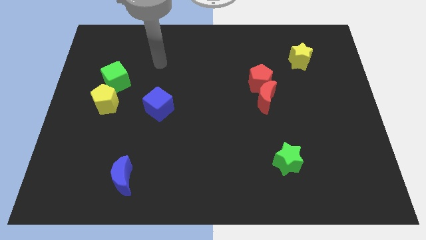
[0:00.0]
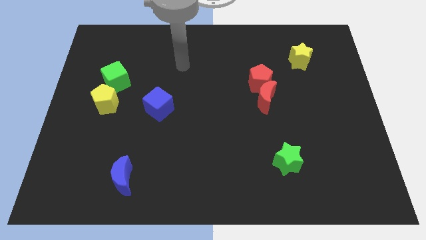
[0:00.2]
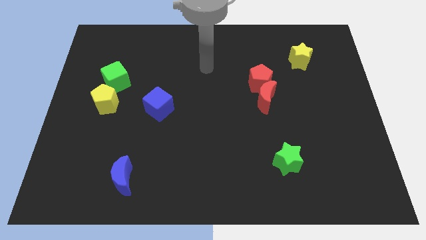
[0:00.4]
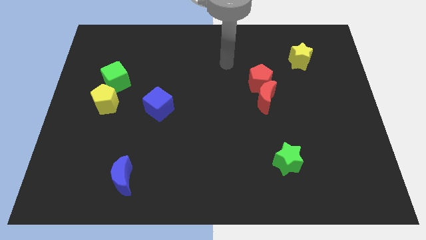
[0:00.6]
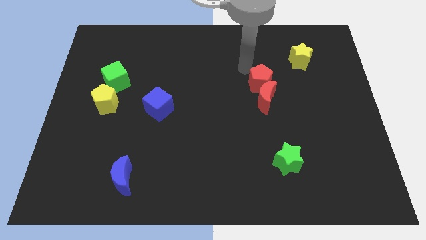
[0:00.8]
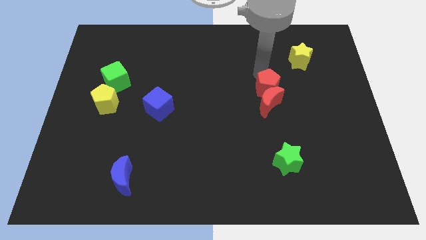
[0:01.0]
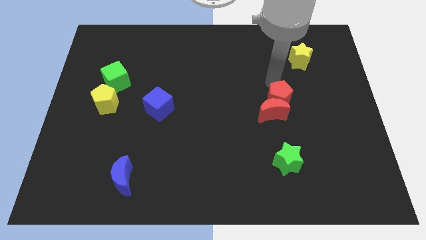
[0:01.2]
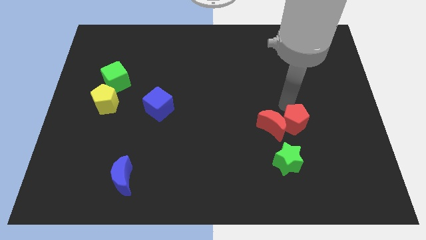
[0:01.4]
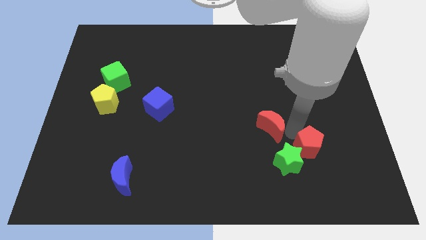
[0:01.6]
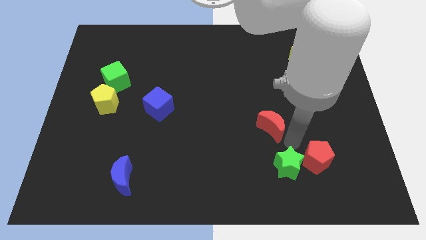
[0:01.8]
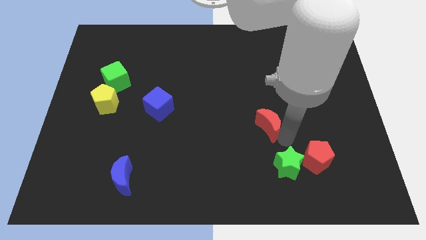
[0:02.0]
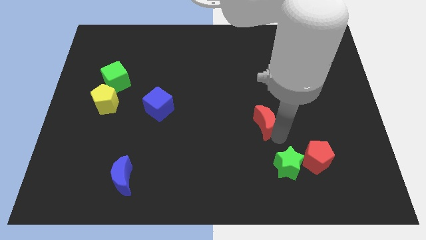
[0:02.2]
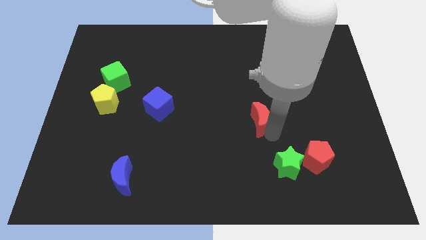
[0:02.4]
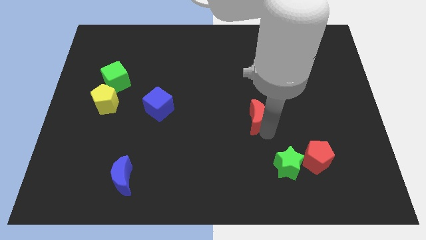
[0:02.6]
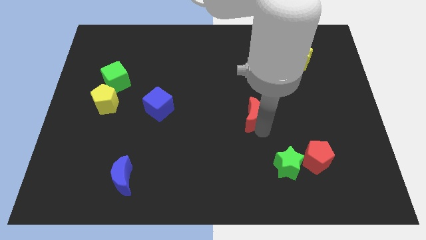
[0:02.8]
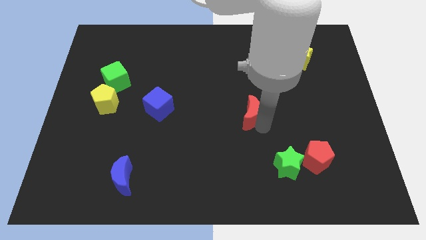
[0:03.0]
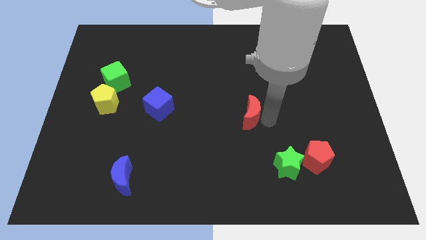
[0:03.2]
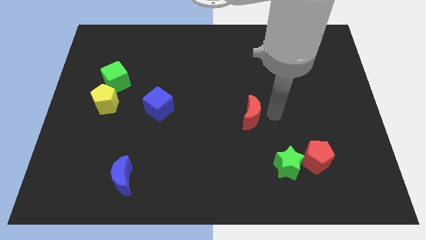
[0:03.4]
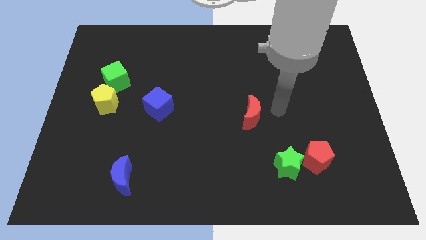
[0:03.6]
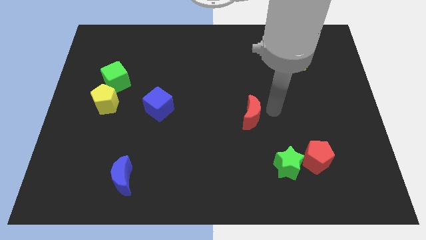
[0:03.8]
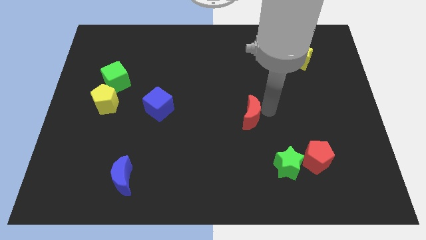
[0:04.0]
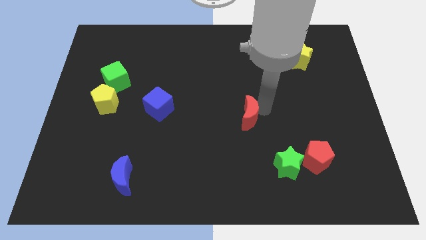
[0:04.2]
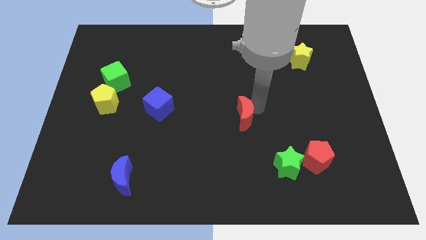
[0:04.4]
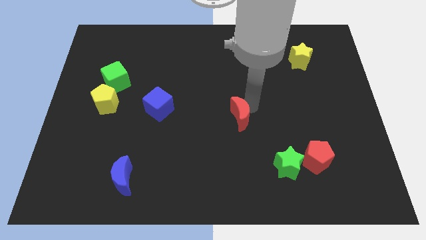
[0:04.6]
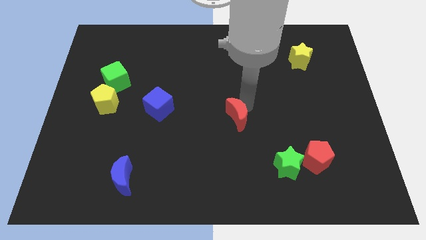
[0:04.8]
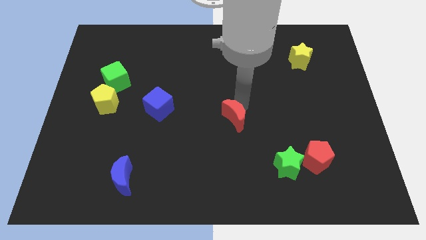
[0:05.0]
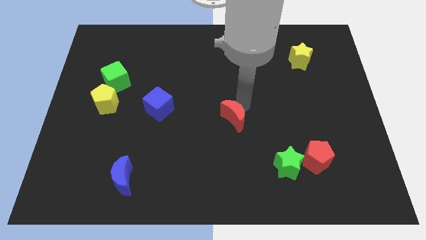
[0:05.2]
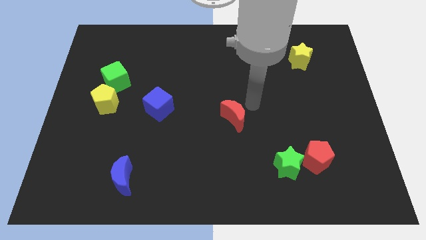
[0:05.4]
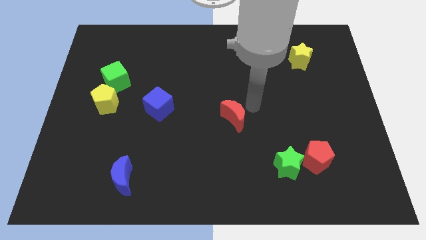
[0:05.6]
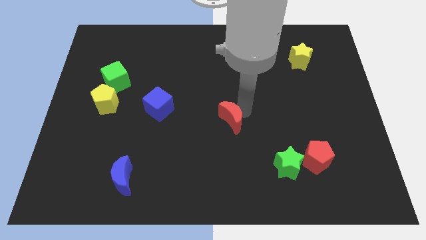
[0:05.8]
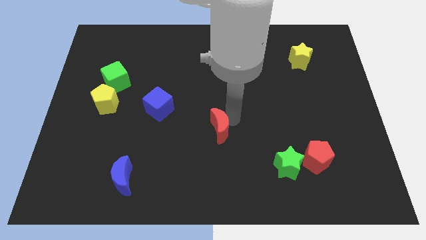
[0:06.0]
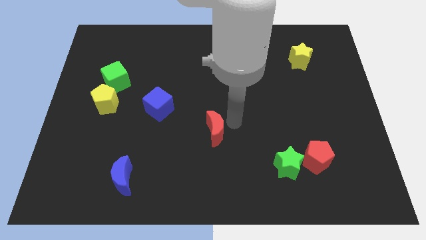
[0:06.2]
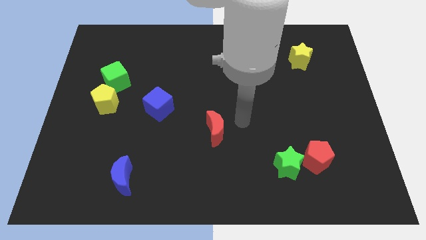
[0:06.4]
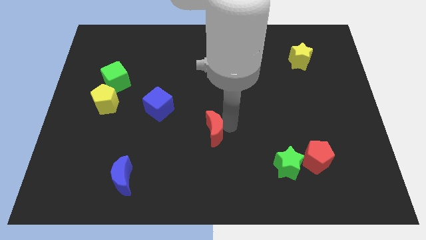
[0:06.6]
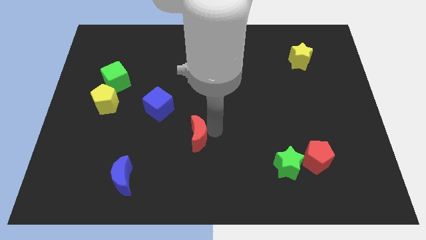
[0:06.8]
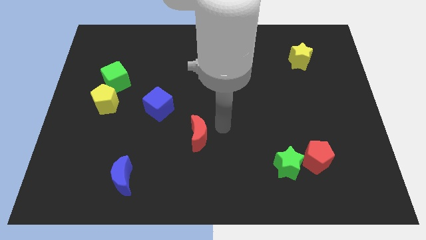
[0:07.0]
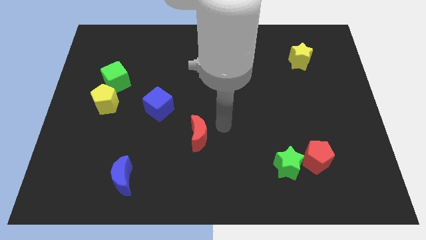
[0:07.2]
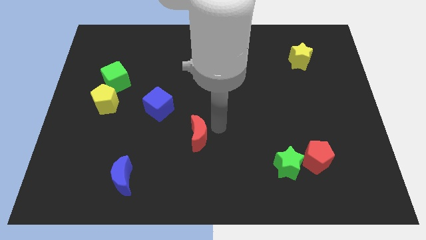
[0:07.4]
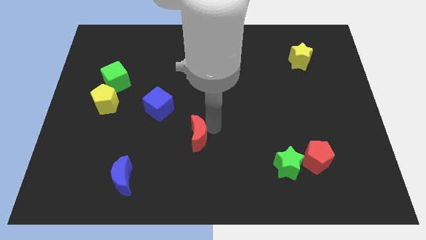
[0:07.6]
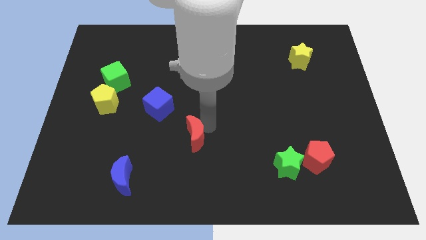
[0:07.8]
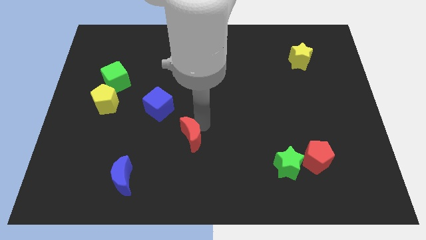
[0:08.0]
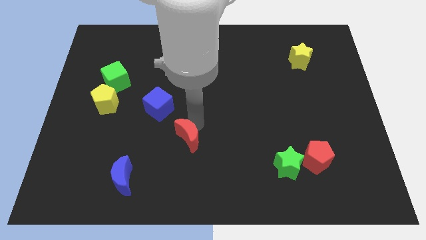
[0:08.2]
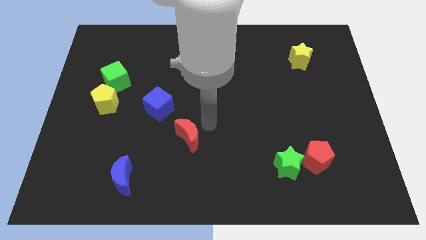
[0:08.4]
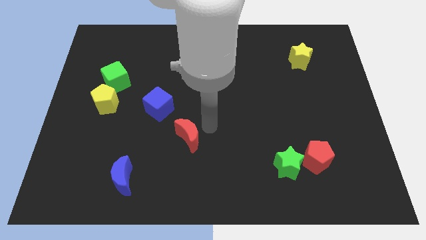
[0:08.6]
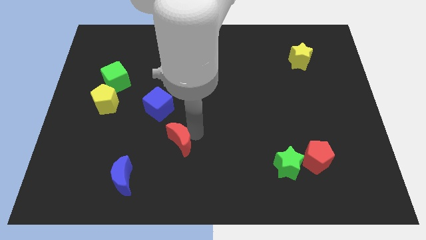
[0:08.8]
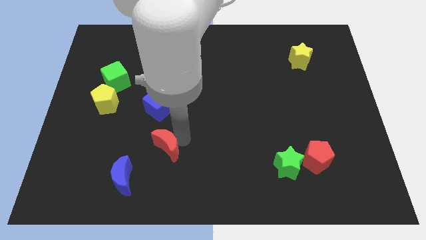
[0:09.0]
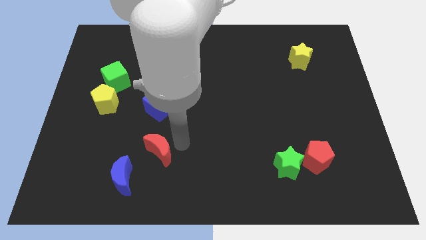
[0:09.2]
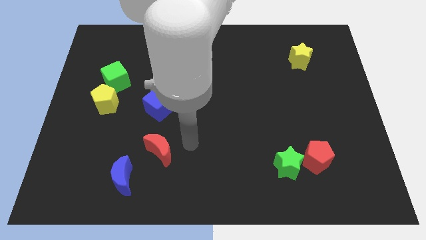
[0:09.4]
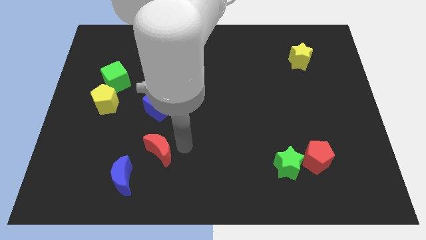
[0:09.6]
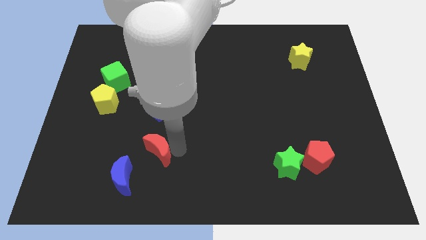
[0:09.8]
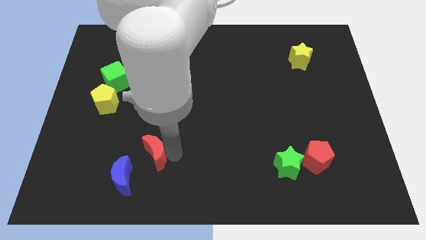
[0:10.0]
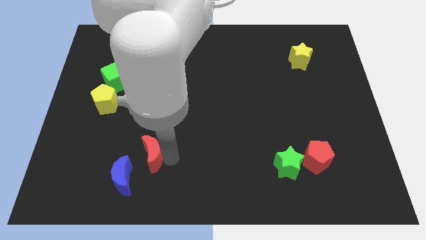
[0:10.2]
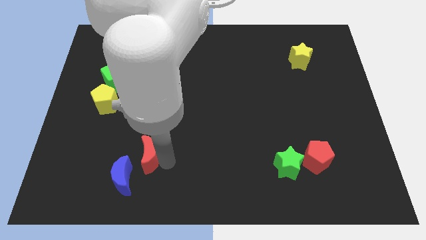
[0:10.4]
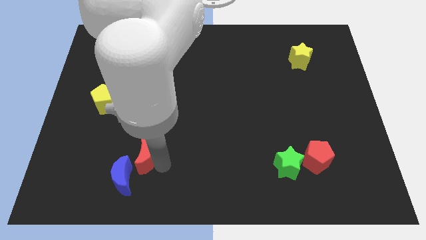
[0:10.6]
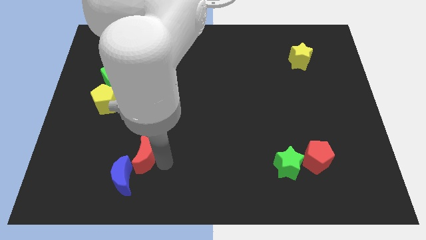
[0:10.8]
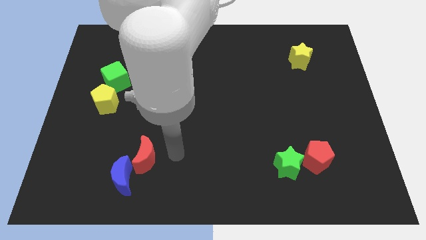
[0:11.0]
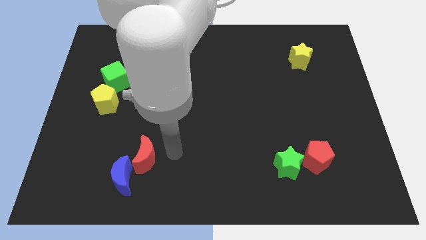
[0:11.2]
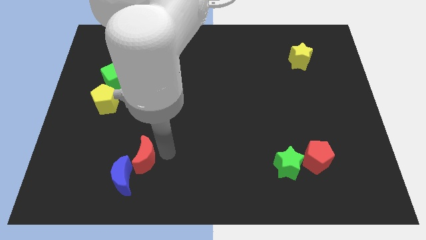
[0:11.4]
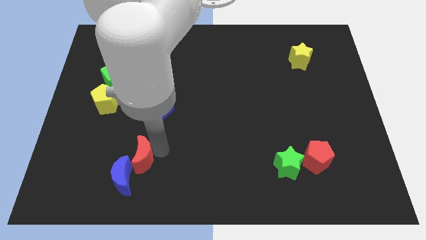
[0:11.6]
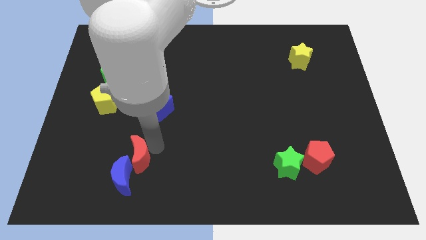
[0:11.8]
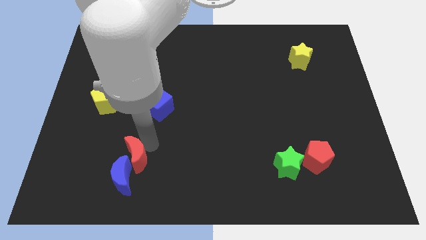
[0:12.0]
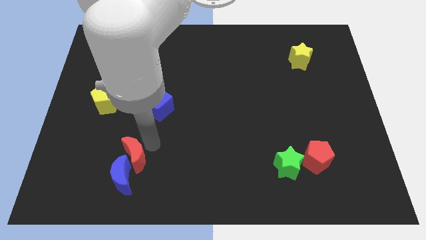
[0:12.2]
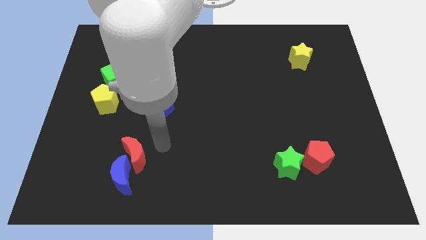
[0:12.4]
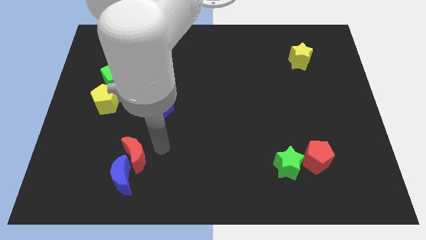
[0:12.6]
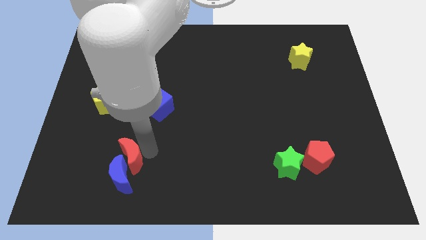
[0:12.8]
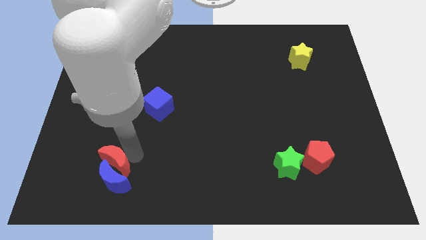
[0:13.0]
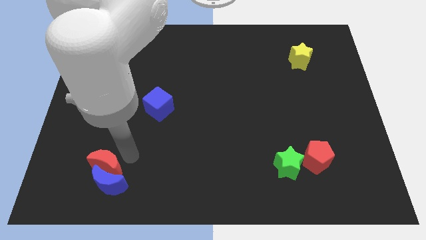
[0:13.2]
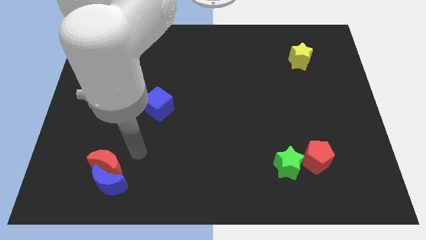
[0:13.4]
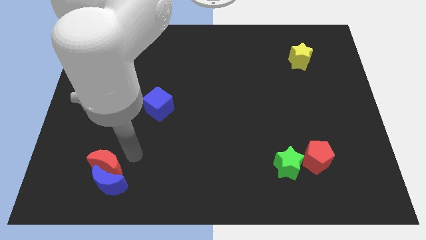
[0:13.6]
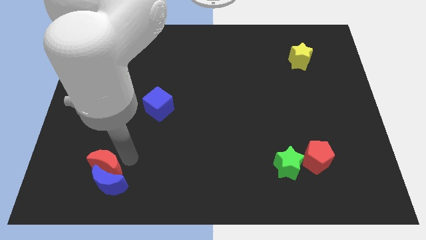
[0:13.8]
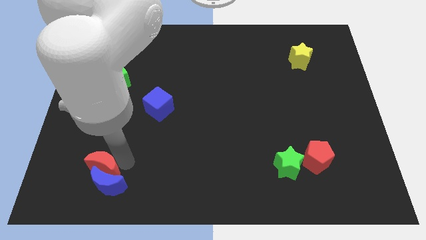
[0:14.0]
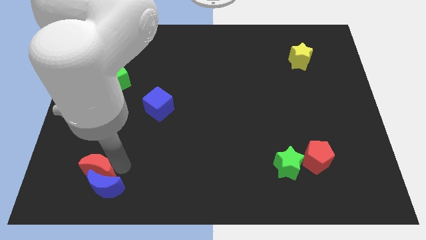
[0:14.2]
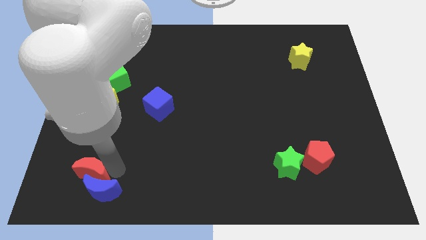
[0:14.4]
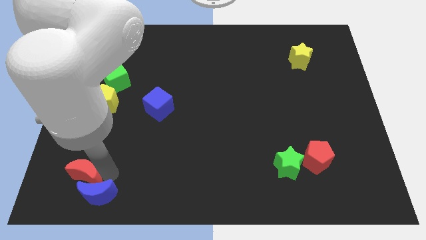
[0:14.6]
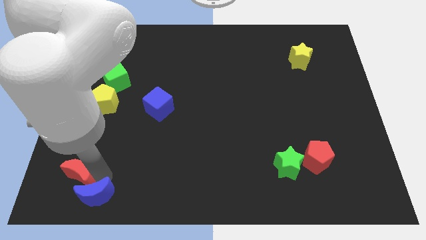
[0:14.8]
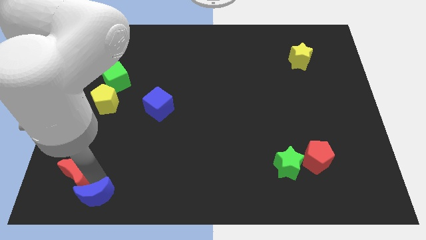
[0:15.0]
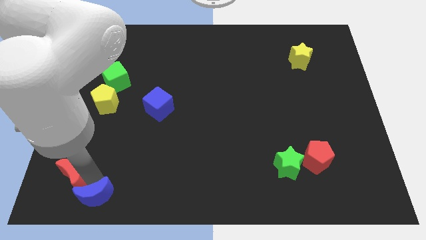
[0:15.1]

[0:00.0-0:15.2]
move the red moon to the bottom left
